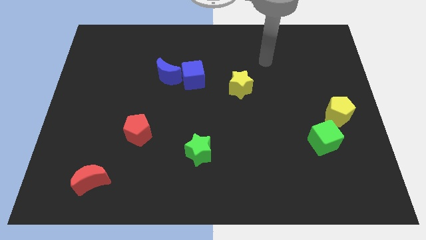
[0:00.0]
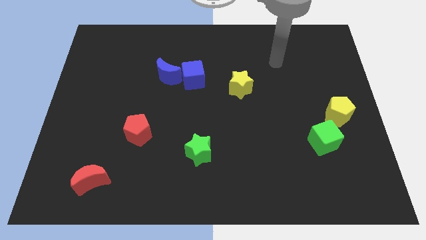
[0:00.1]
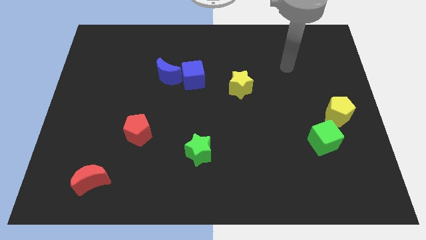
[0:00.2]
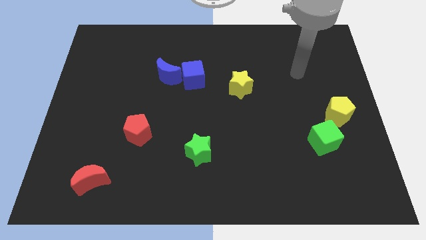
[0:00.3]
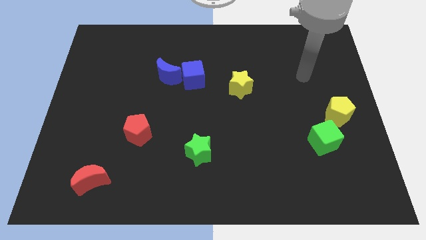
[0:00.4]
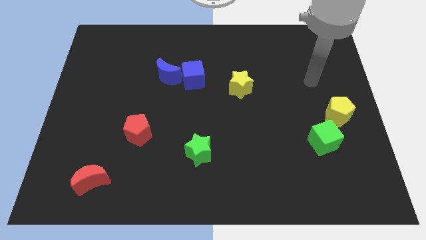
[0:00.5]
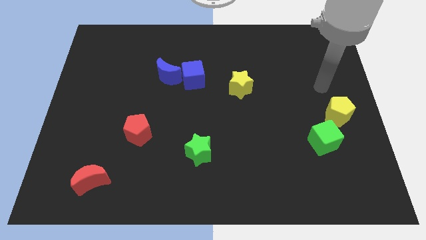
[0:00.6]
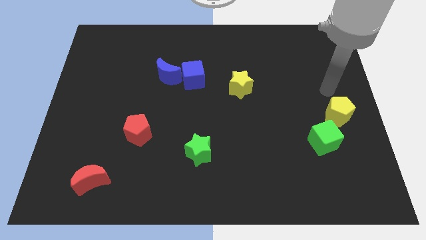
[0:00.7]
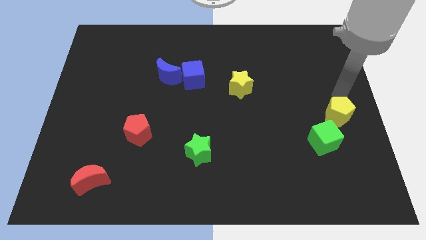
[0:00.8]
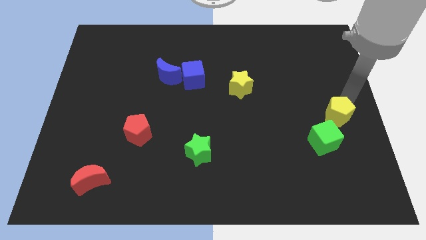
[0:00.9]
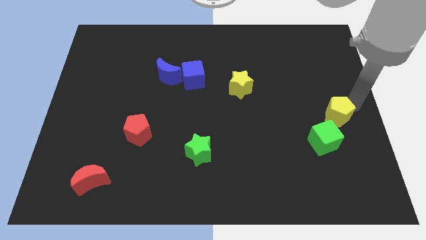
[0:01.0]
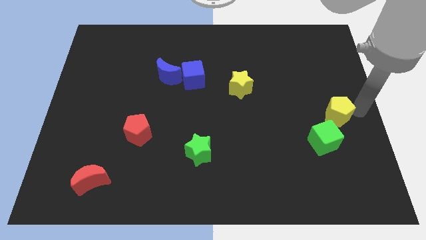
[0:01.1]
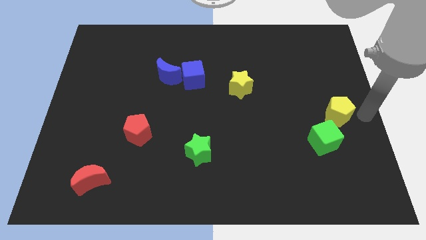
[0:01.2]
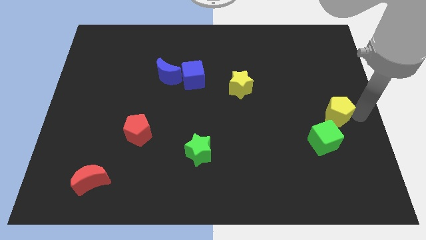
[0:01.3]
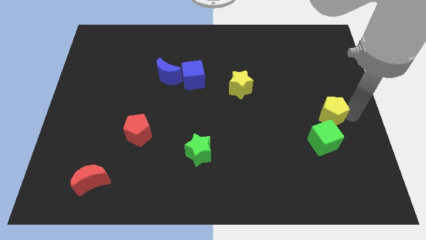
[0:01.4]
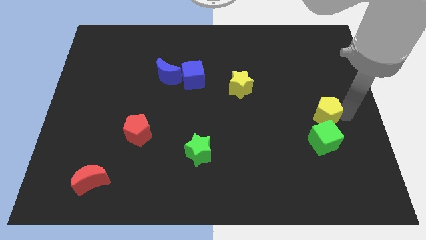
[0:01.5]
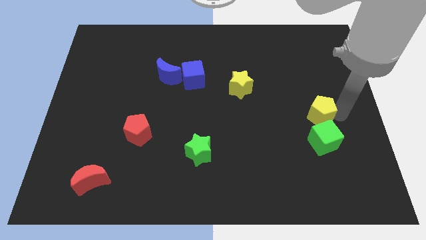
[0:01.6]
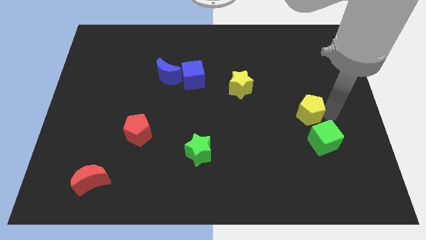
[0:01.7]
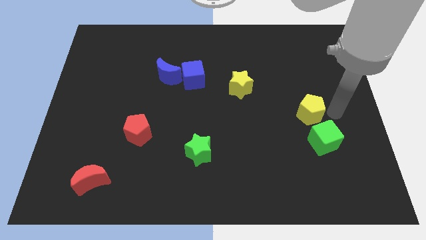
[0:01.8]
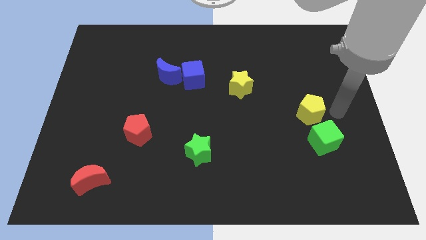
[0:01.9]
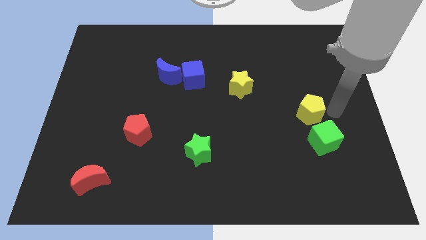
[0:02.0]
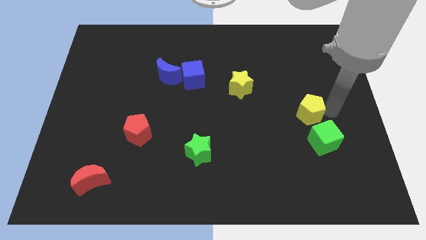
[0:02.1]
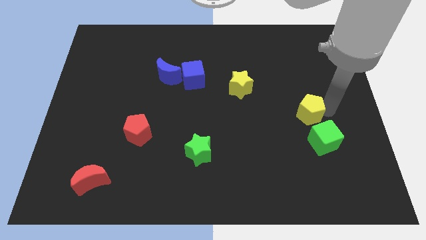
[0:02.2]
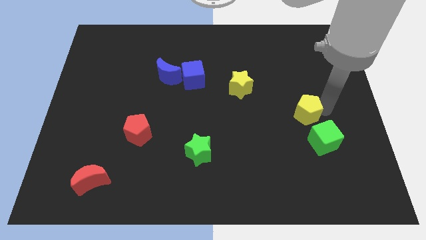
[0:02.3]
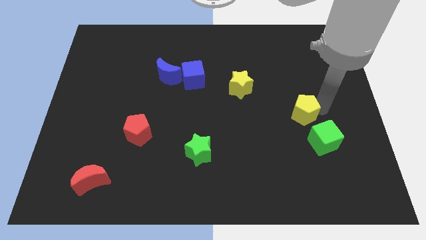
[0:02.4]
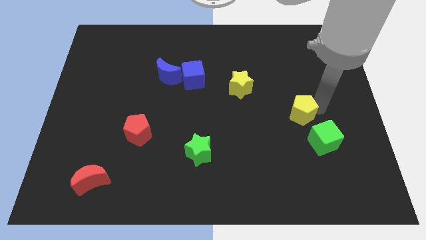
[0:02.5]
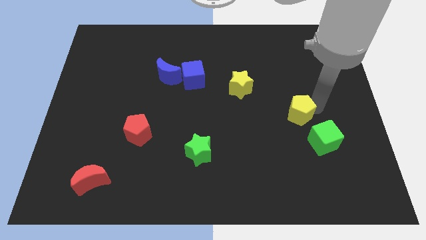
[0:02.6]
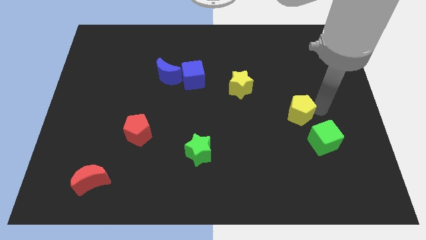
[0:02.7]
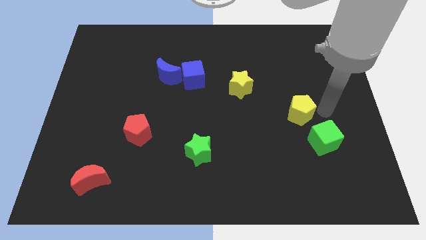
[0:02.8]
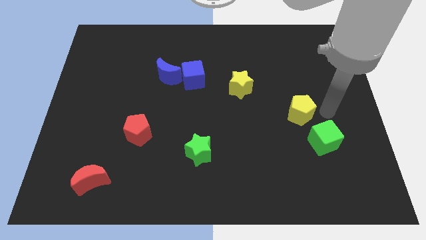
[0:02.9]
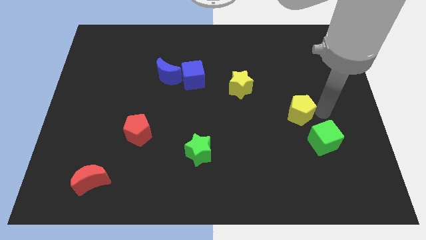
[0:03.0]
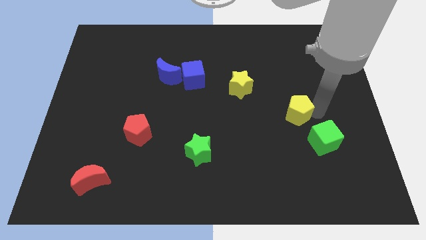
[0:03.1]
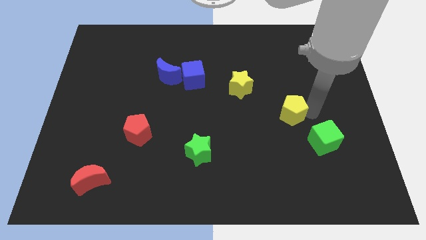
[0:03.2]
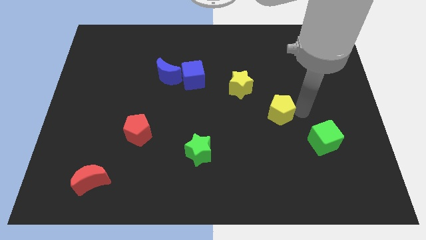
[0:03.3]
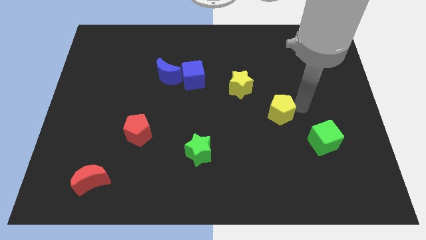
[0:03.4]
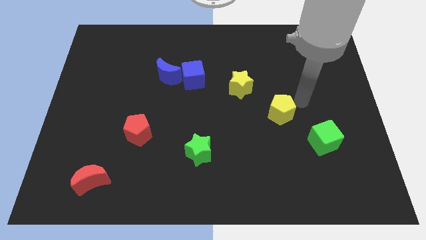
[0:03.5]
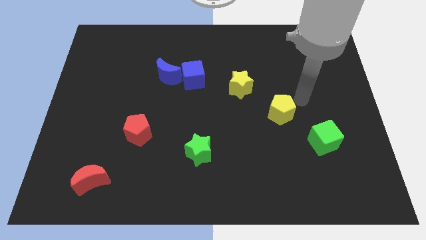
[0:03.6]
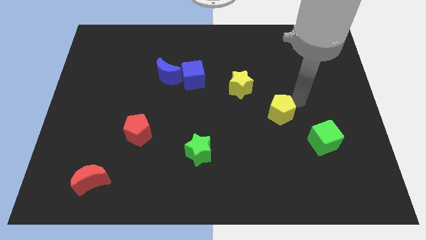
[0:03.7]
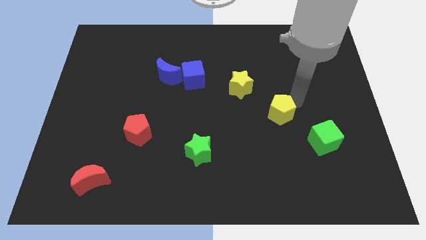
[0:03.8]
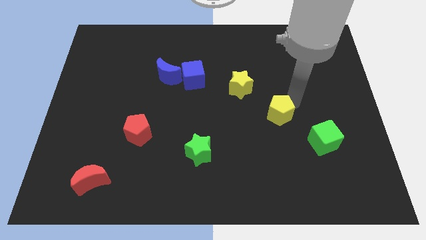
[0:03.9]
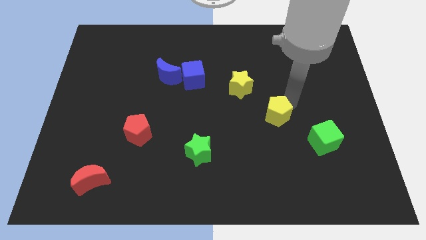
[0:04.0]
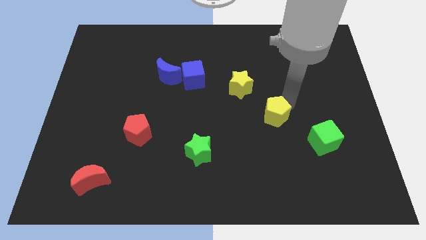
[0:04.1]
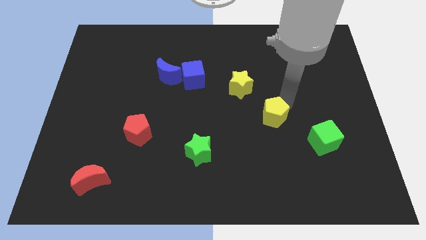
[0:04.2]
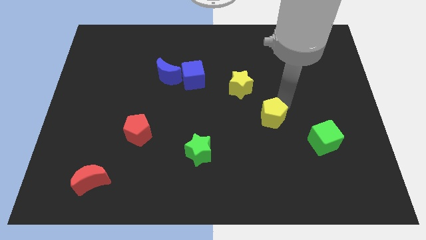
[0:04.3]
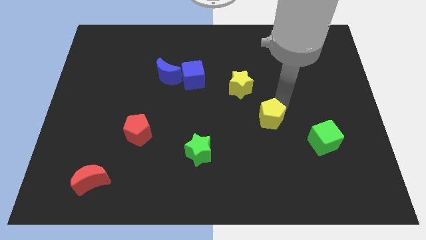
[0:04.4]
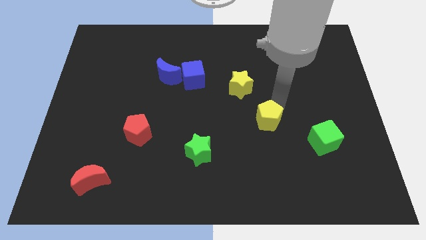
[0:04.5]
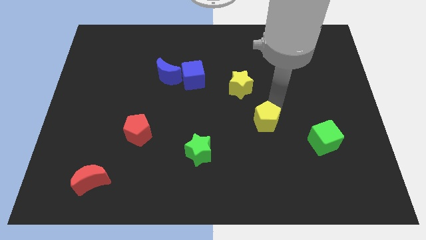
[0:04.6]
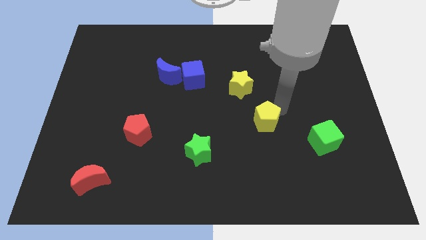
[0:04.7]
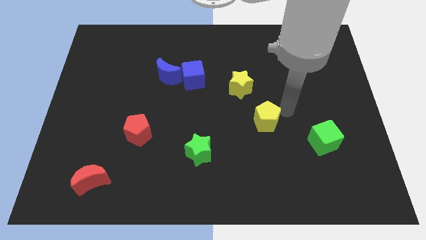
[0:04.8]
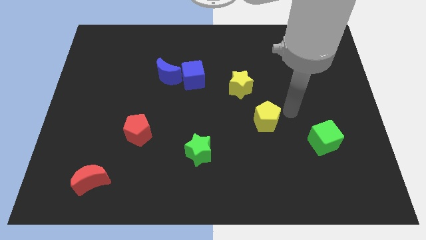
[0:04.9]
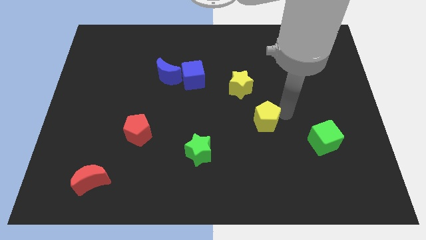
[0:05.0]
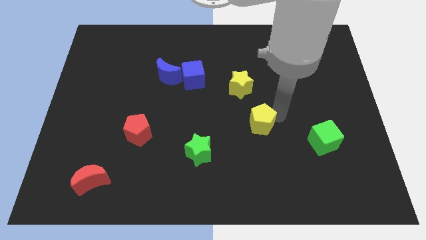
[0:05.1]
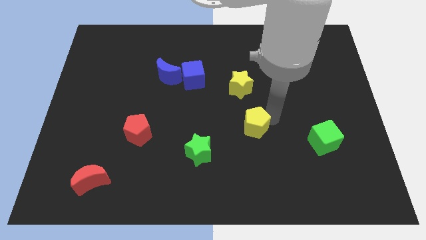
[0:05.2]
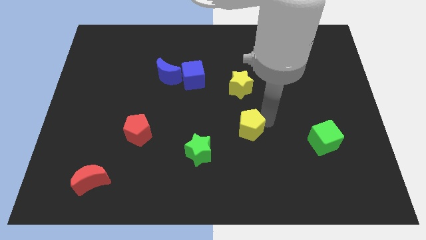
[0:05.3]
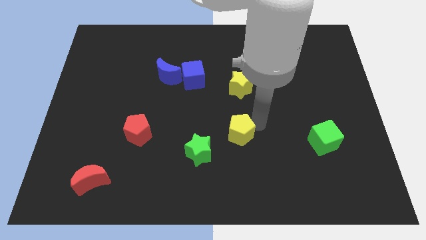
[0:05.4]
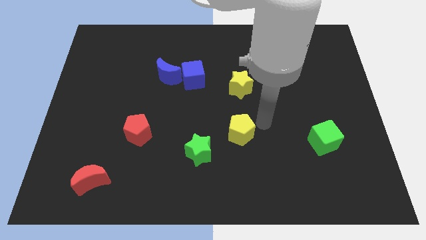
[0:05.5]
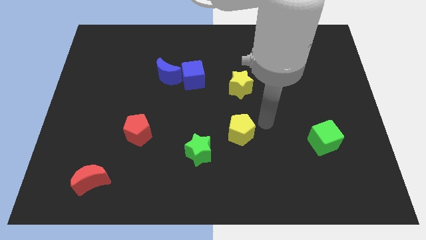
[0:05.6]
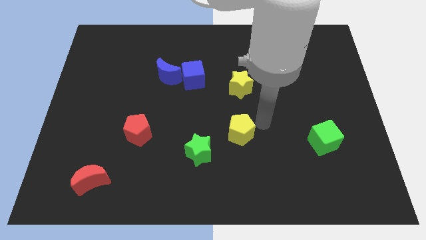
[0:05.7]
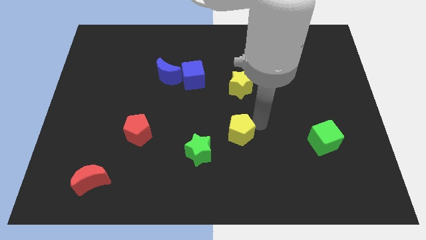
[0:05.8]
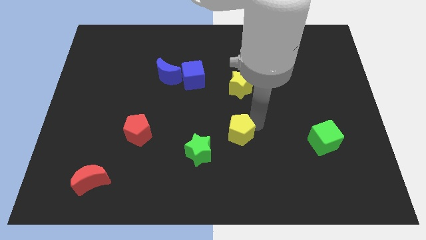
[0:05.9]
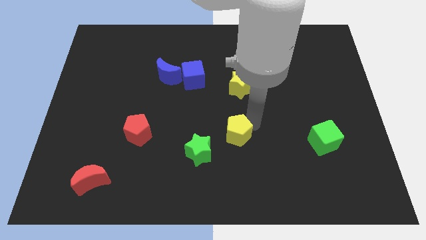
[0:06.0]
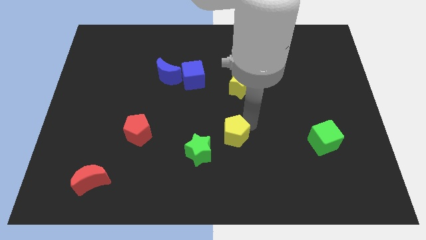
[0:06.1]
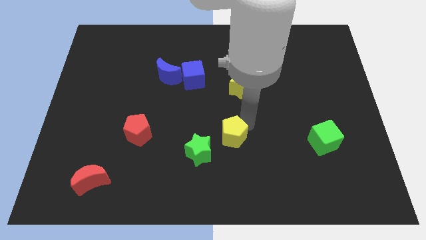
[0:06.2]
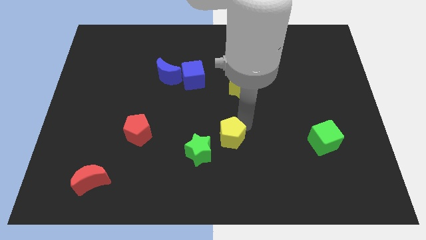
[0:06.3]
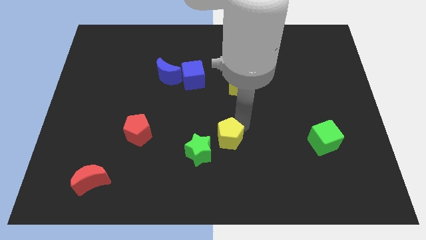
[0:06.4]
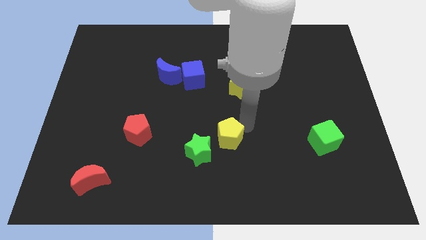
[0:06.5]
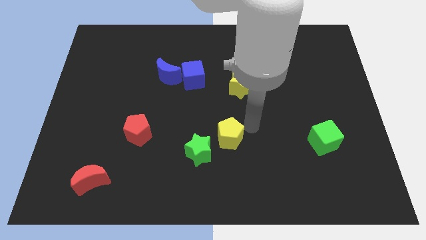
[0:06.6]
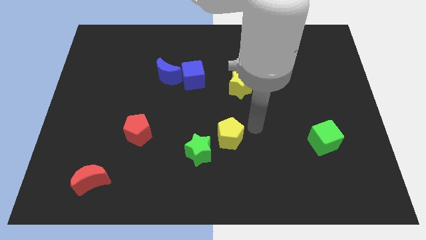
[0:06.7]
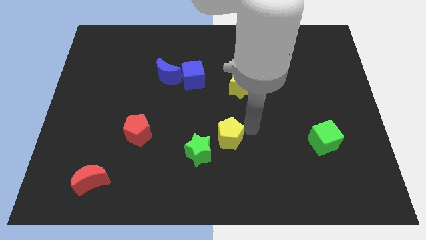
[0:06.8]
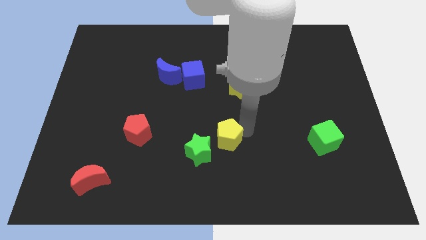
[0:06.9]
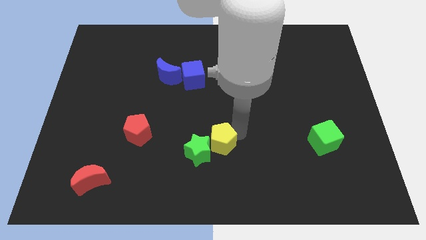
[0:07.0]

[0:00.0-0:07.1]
put the yellow pentagon towards the green star
